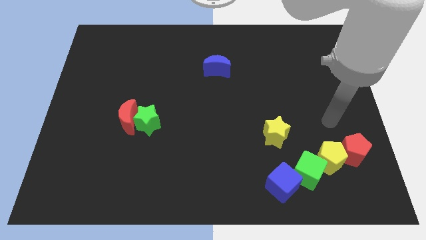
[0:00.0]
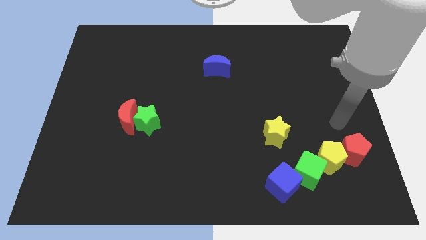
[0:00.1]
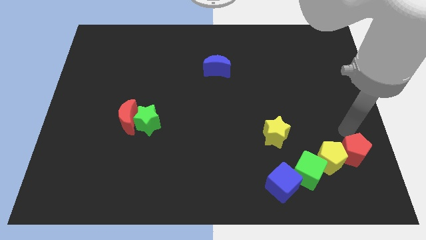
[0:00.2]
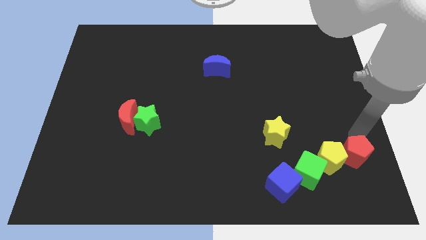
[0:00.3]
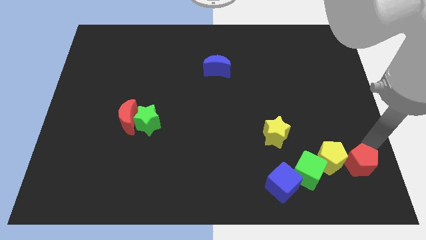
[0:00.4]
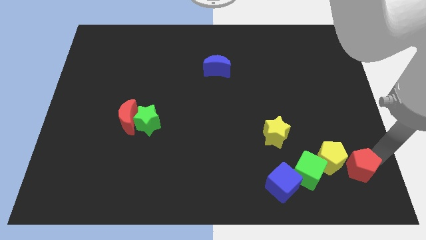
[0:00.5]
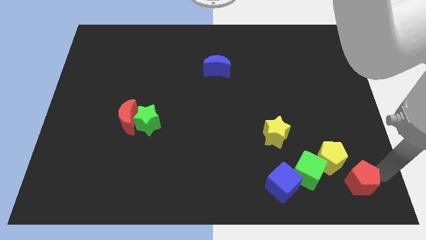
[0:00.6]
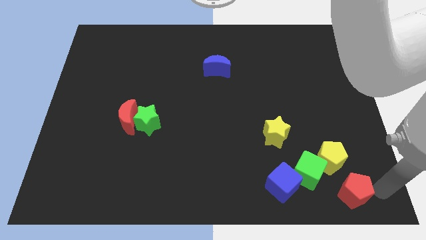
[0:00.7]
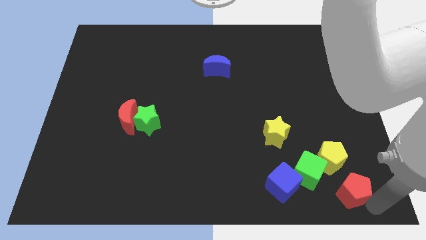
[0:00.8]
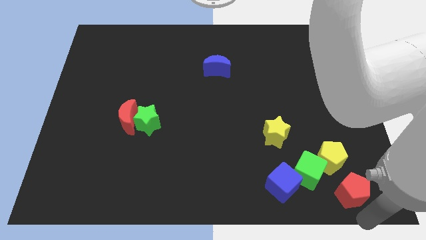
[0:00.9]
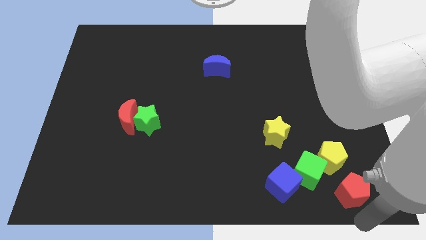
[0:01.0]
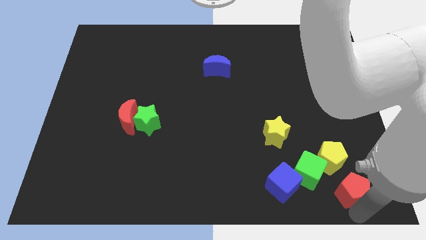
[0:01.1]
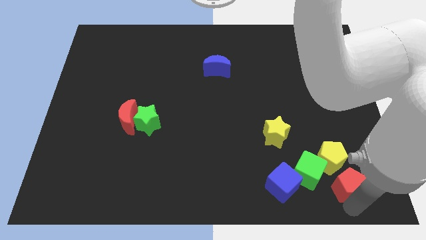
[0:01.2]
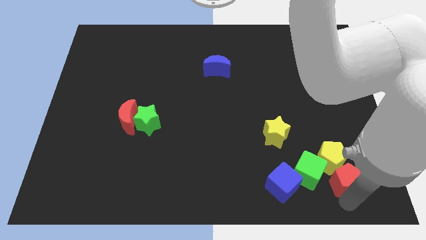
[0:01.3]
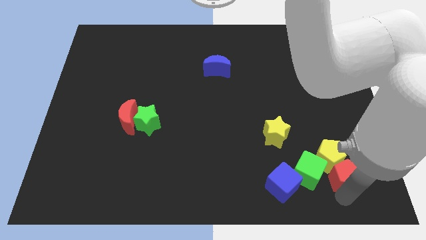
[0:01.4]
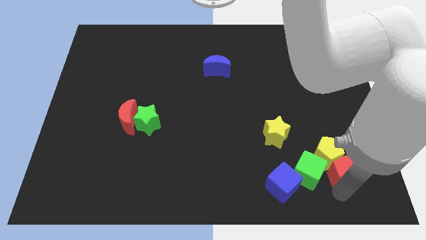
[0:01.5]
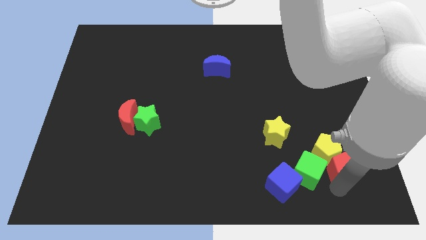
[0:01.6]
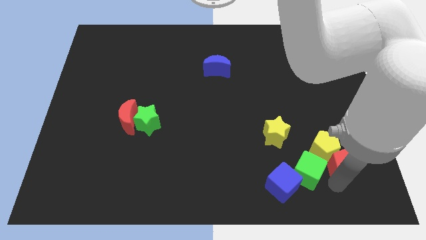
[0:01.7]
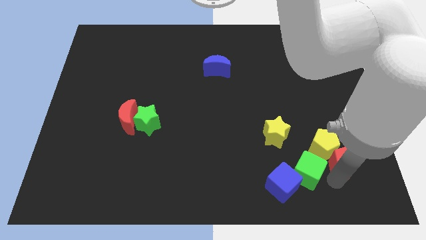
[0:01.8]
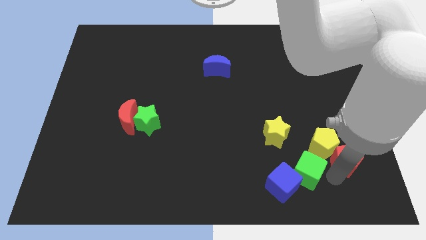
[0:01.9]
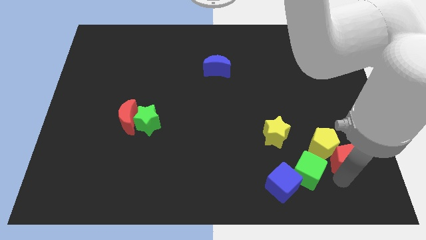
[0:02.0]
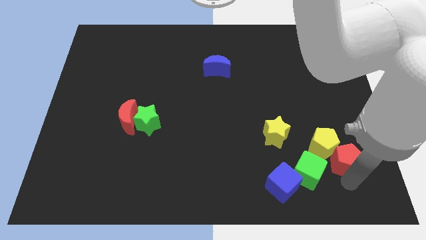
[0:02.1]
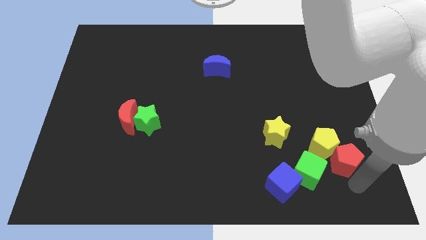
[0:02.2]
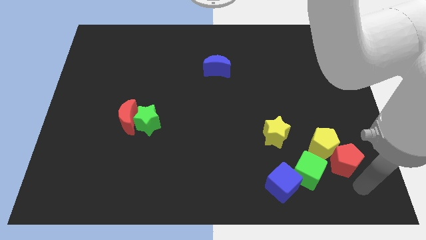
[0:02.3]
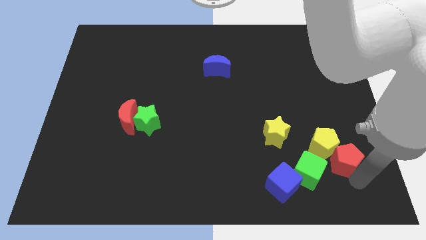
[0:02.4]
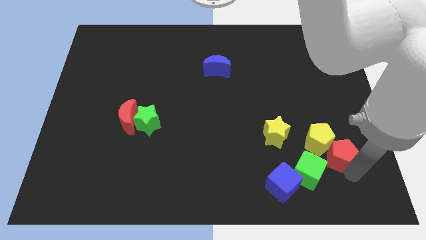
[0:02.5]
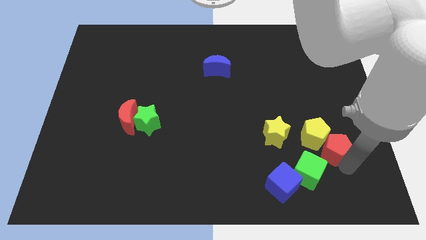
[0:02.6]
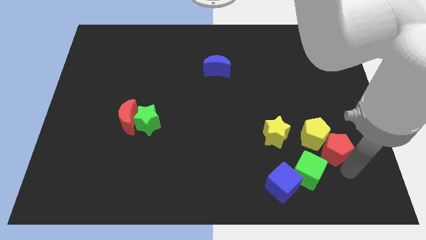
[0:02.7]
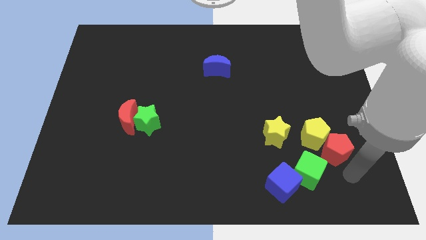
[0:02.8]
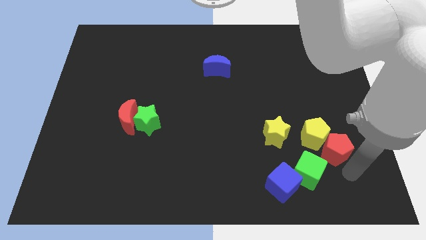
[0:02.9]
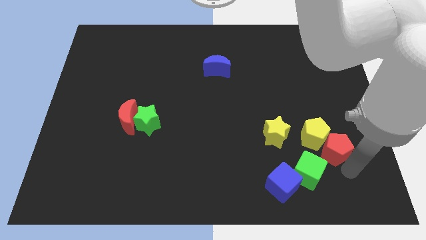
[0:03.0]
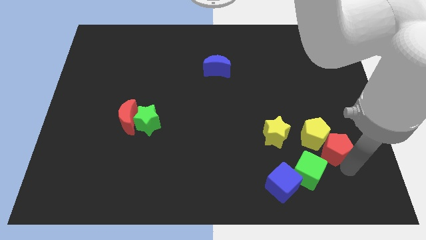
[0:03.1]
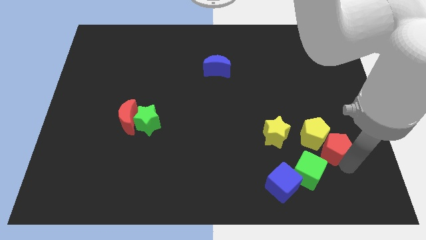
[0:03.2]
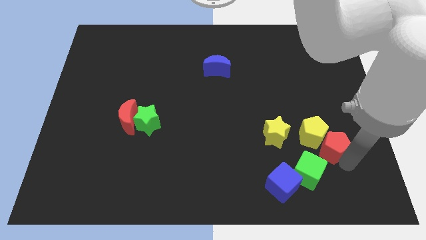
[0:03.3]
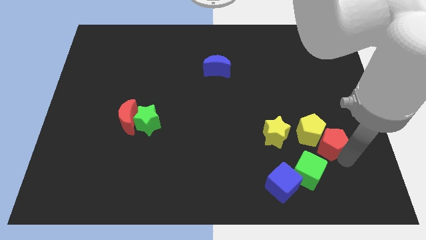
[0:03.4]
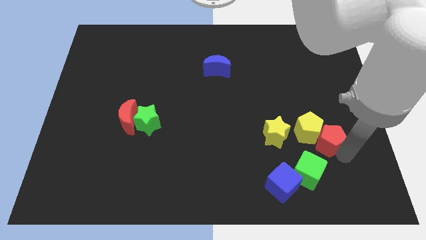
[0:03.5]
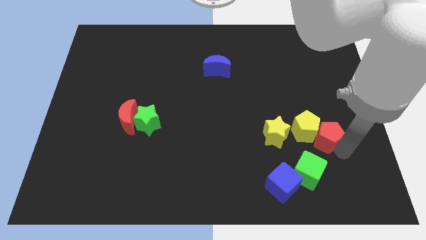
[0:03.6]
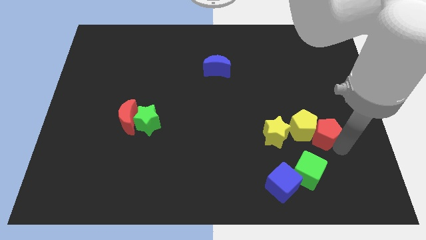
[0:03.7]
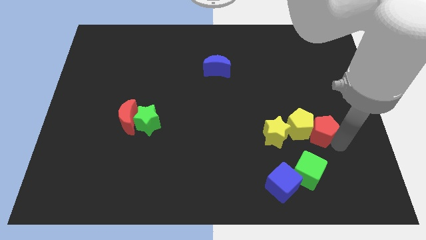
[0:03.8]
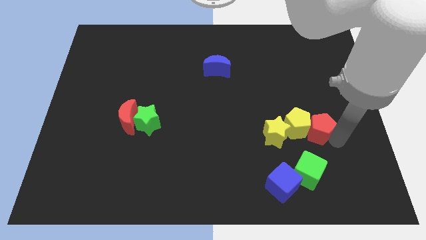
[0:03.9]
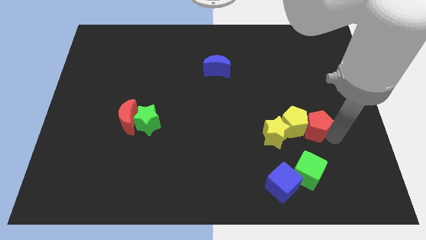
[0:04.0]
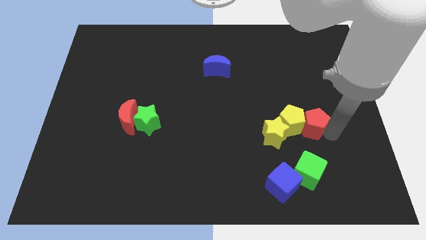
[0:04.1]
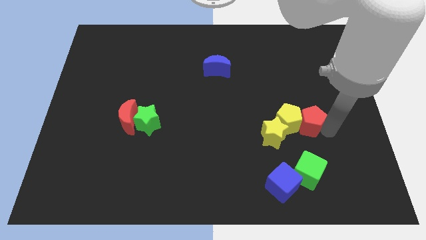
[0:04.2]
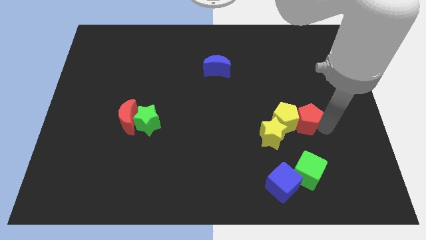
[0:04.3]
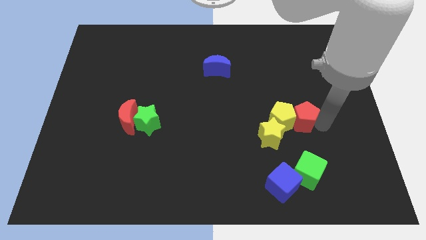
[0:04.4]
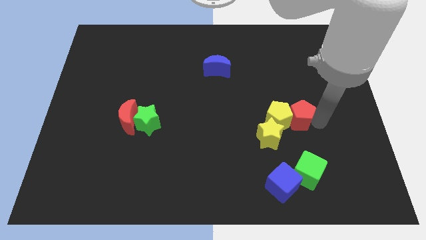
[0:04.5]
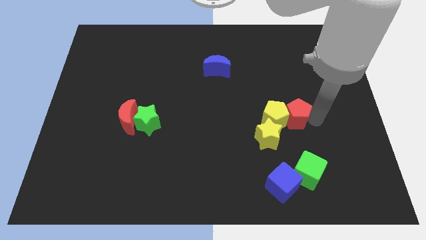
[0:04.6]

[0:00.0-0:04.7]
push the red pentagon slightly left

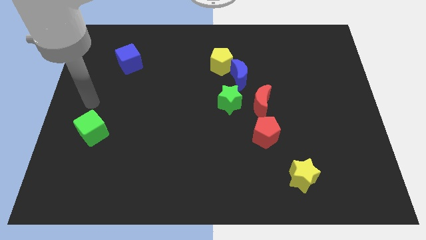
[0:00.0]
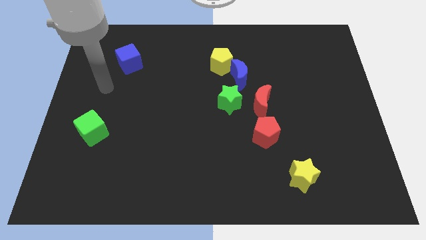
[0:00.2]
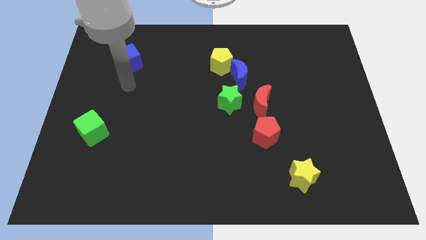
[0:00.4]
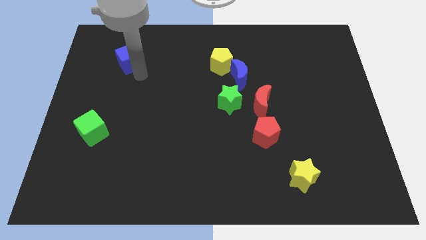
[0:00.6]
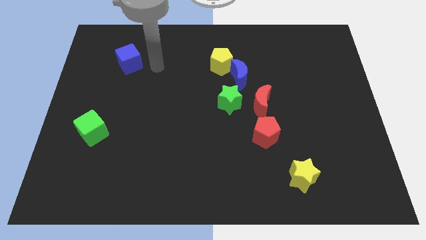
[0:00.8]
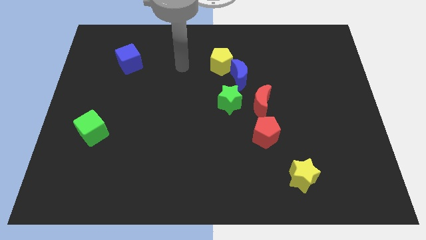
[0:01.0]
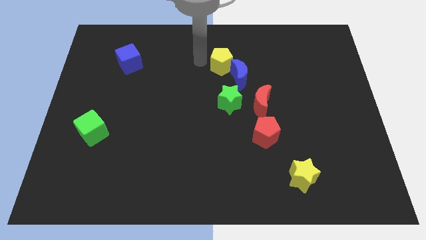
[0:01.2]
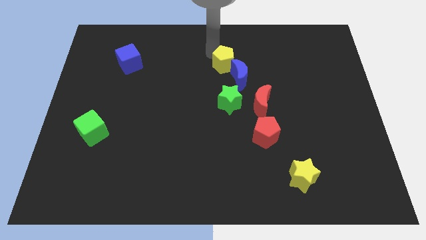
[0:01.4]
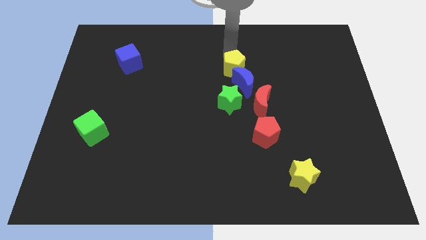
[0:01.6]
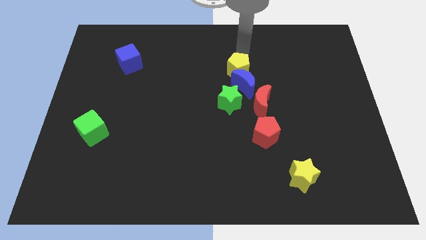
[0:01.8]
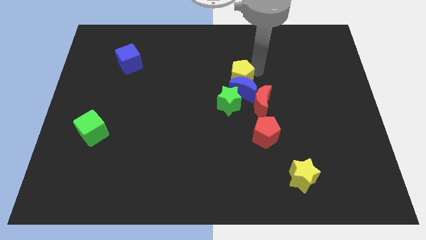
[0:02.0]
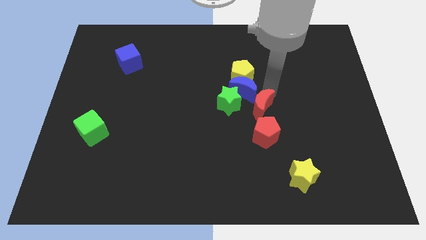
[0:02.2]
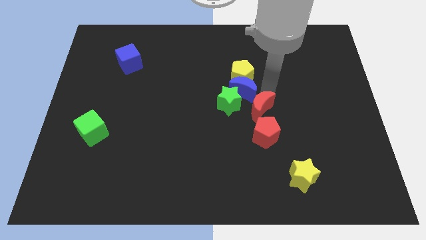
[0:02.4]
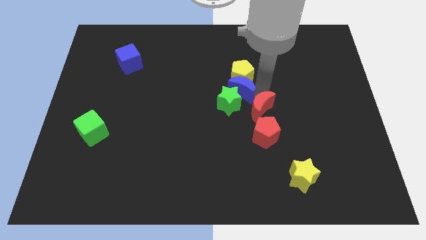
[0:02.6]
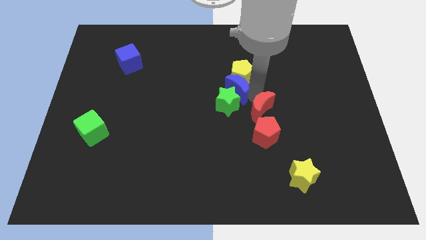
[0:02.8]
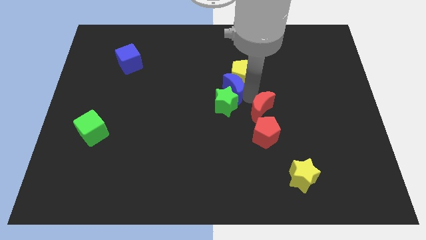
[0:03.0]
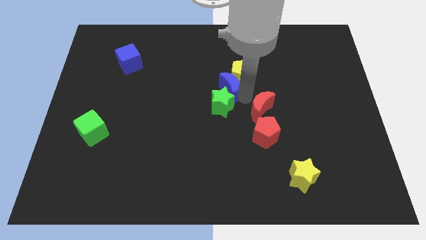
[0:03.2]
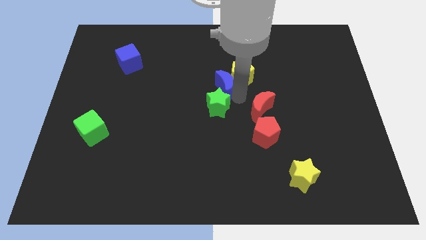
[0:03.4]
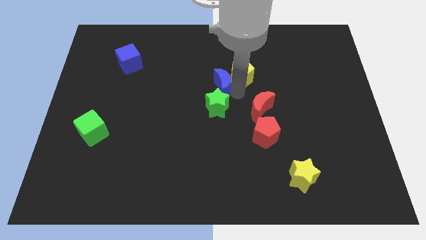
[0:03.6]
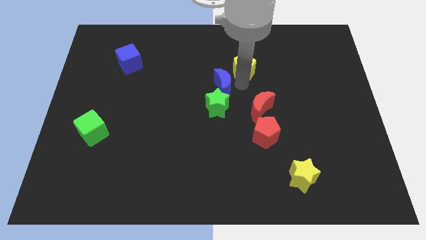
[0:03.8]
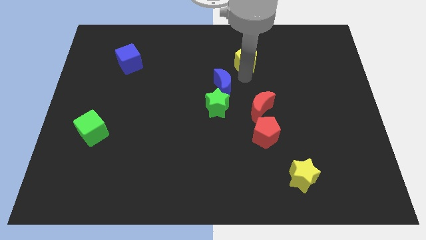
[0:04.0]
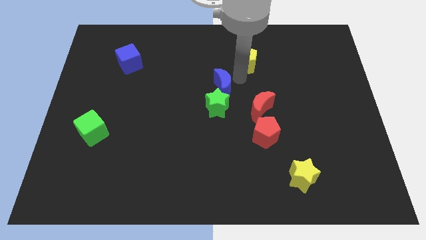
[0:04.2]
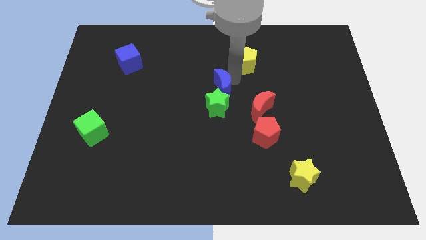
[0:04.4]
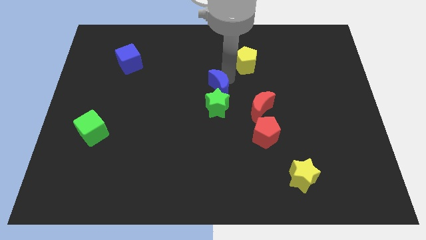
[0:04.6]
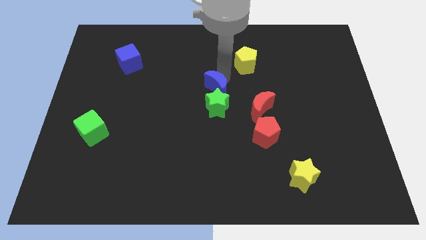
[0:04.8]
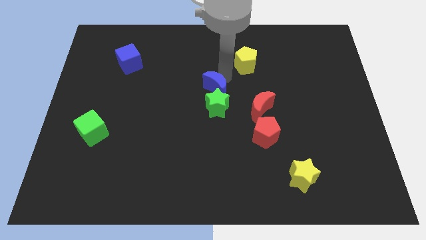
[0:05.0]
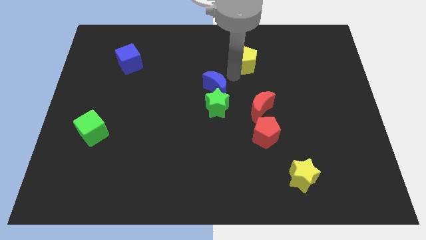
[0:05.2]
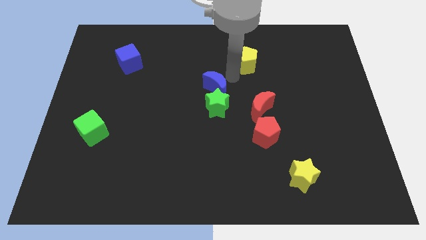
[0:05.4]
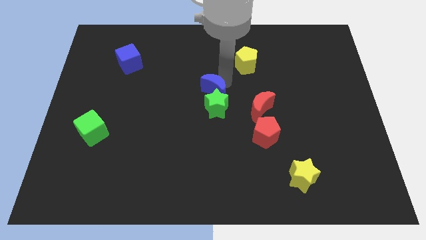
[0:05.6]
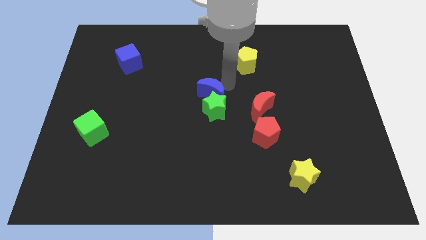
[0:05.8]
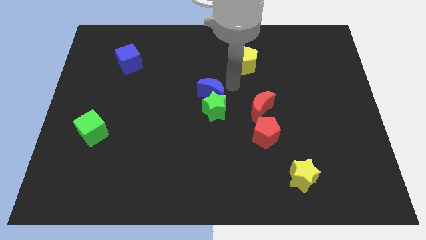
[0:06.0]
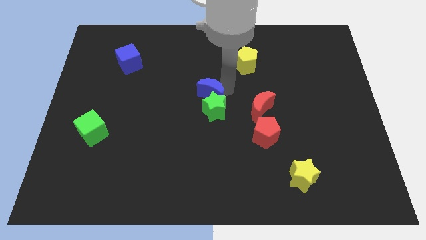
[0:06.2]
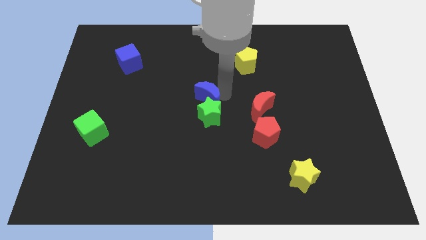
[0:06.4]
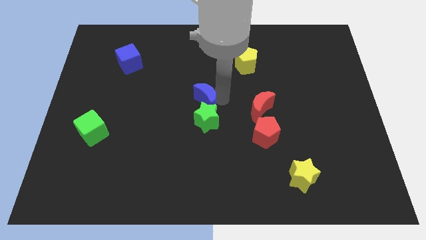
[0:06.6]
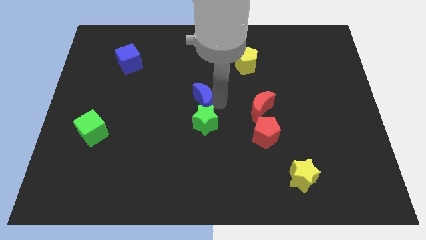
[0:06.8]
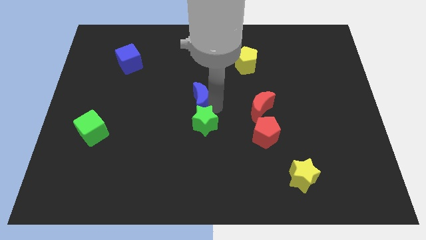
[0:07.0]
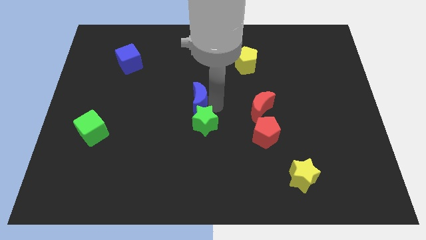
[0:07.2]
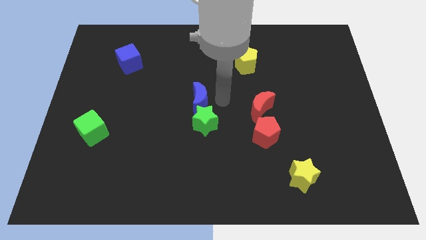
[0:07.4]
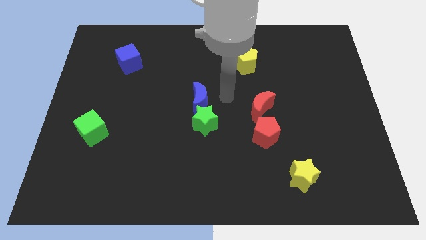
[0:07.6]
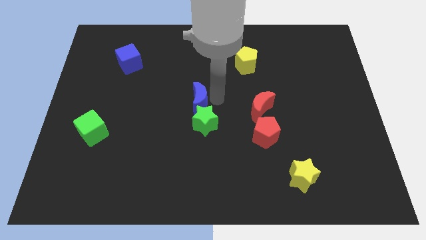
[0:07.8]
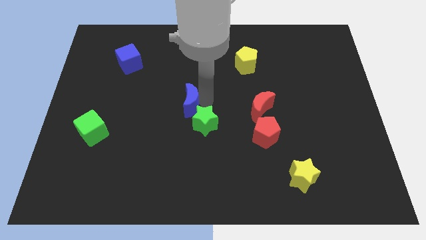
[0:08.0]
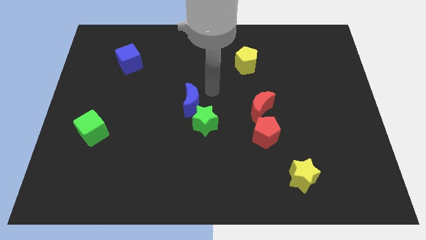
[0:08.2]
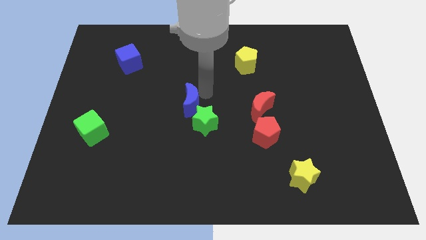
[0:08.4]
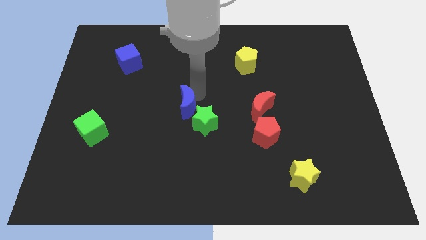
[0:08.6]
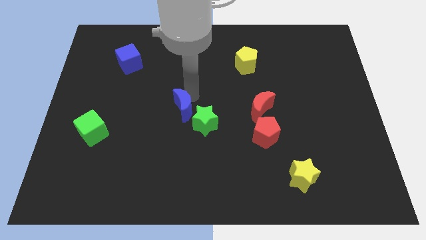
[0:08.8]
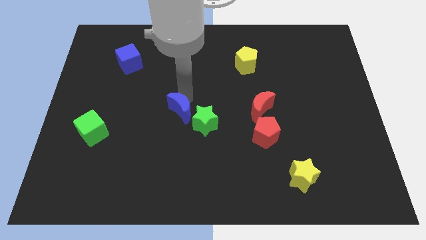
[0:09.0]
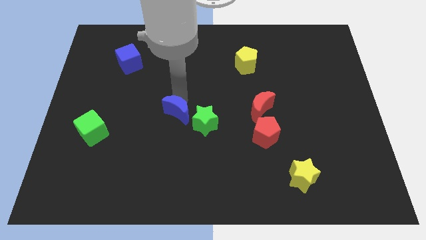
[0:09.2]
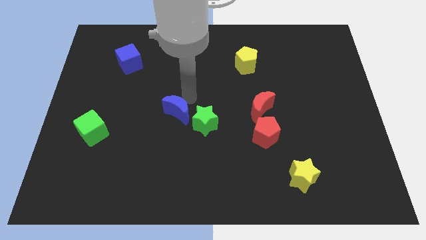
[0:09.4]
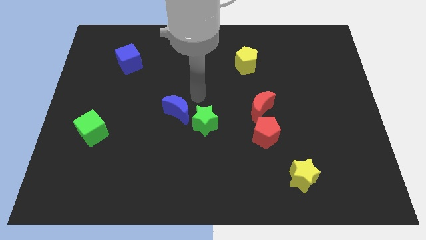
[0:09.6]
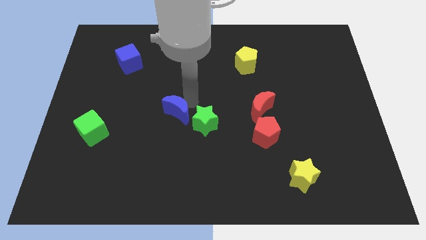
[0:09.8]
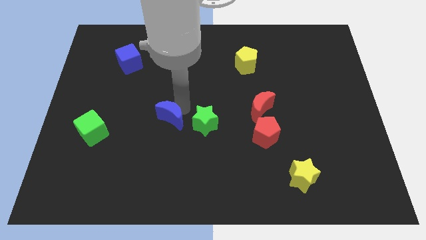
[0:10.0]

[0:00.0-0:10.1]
push the blue moon diagonally down and to the left
